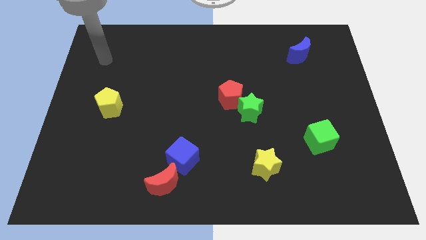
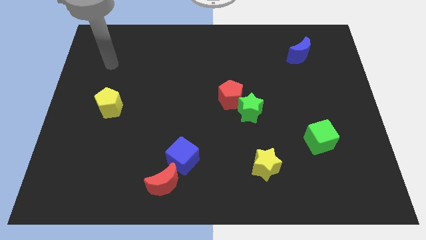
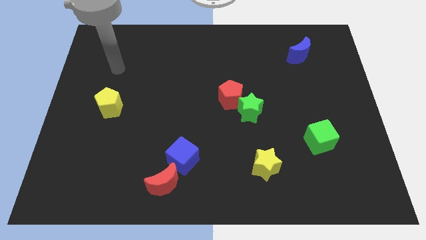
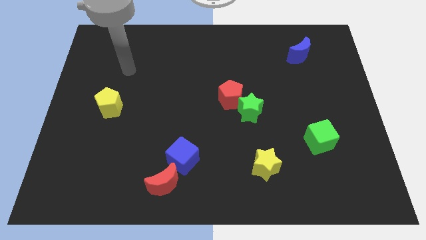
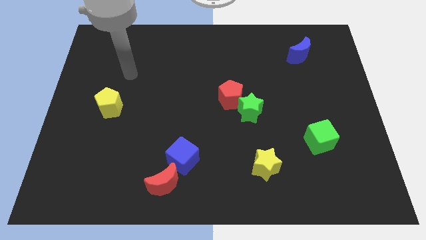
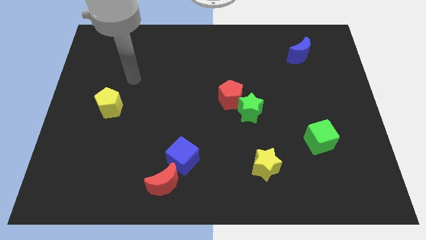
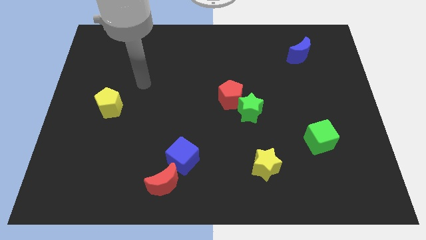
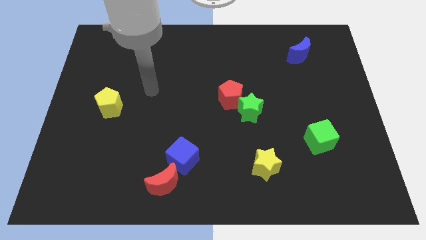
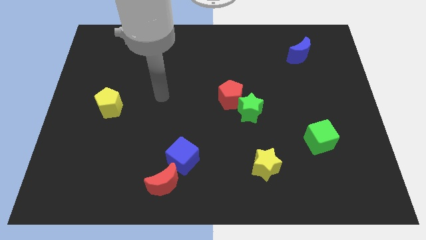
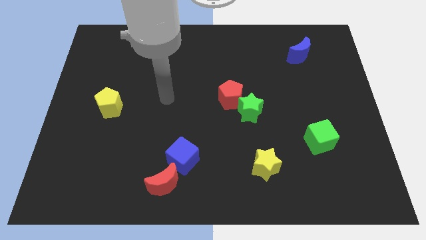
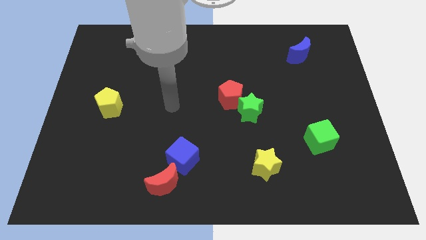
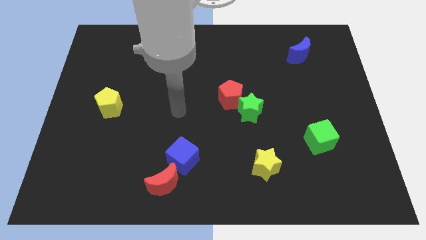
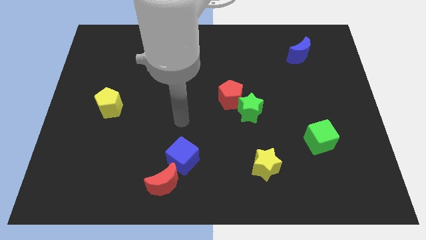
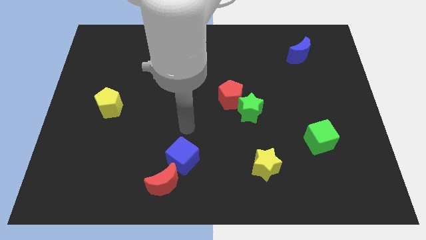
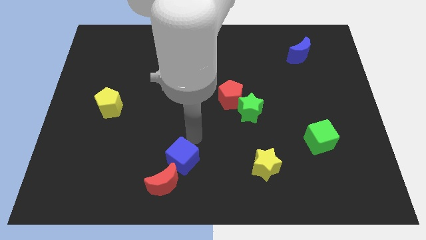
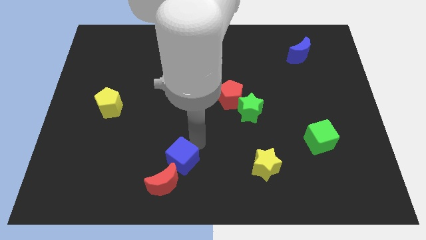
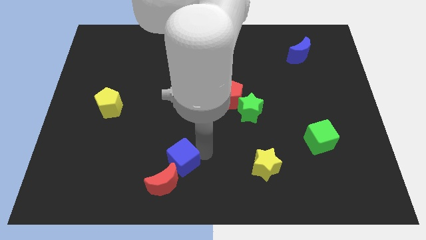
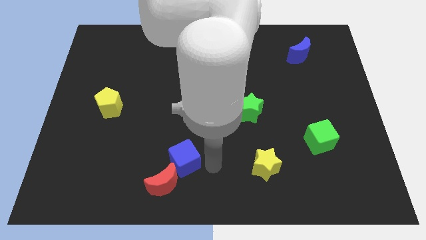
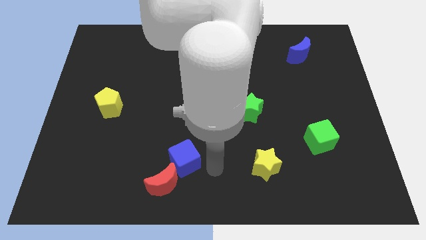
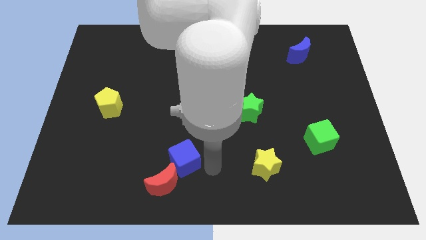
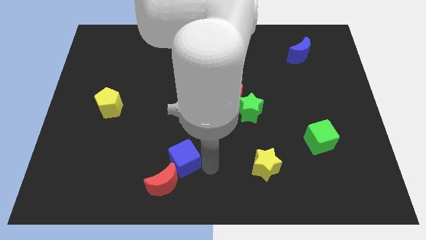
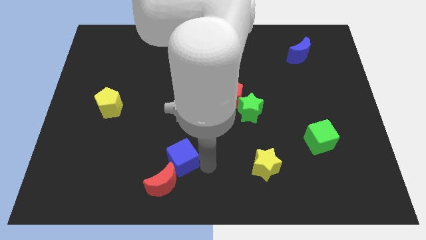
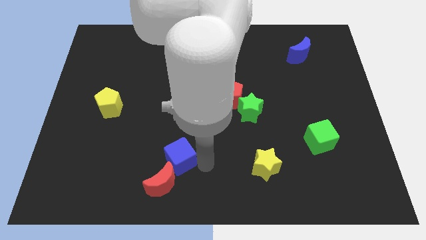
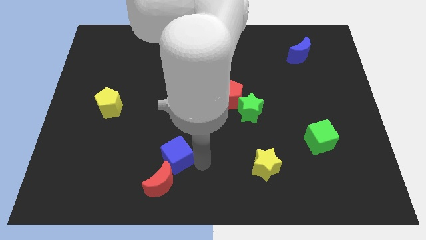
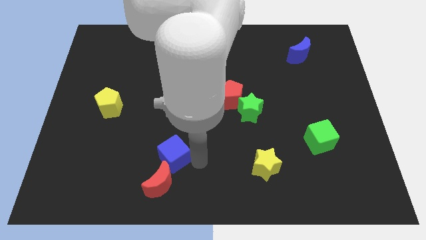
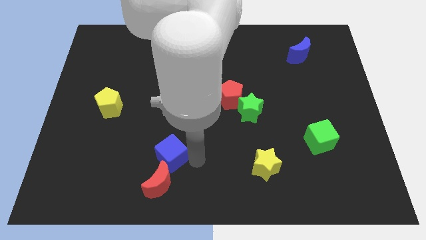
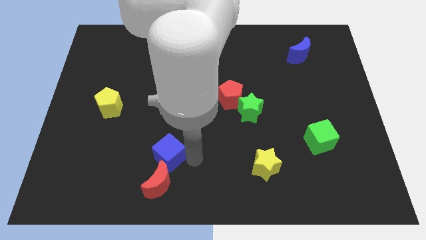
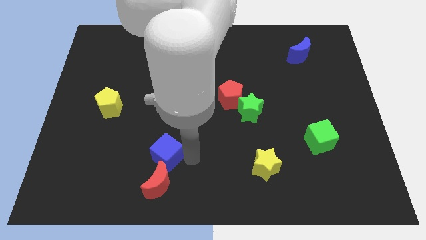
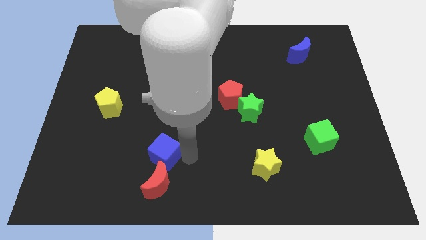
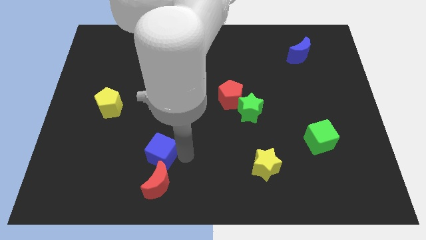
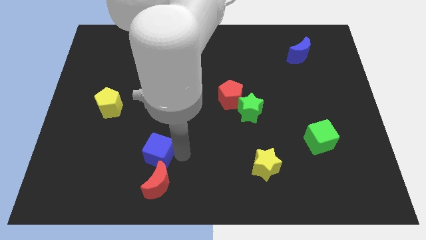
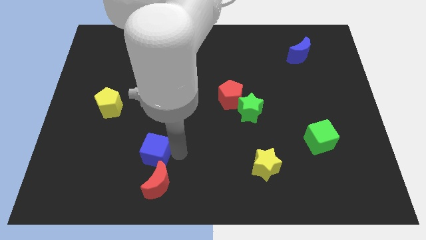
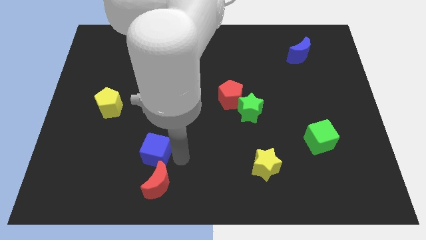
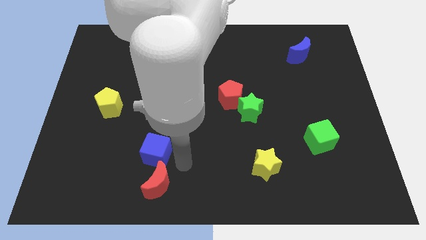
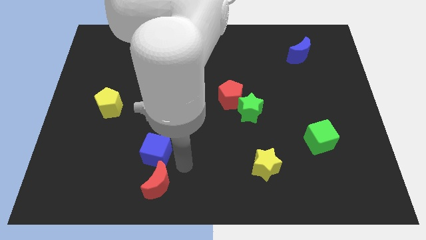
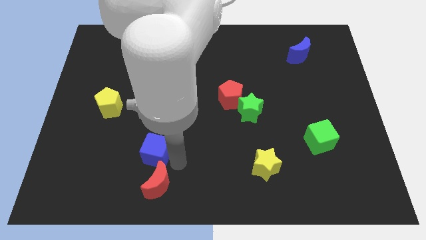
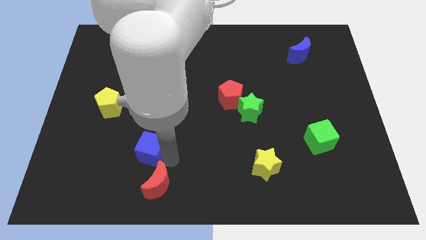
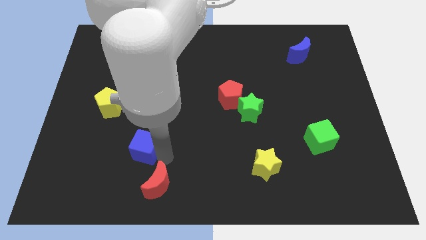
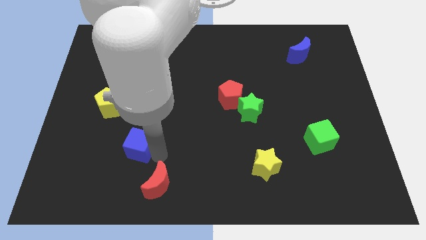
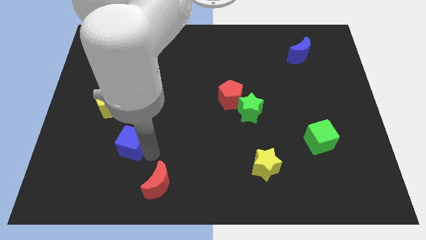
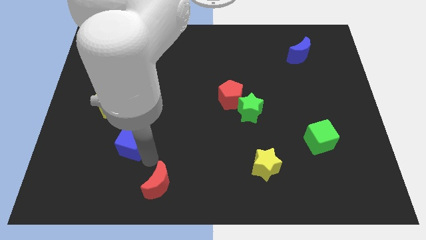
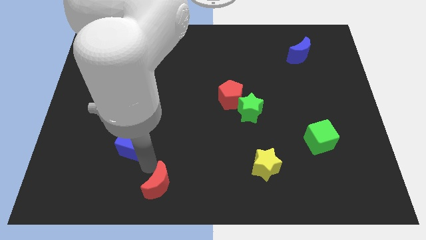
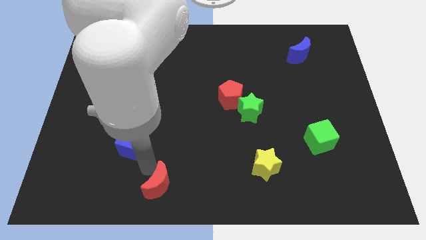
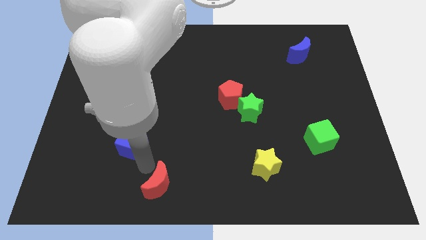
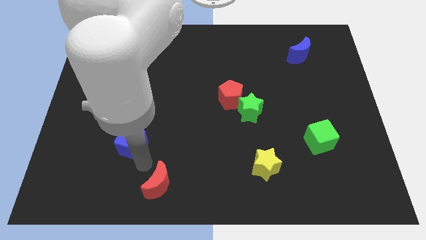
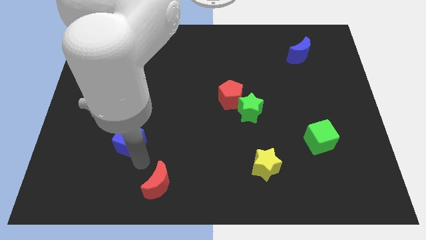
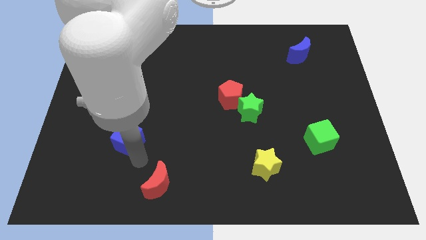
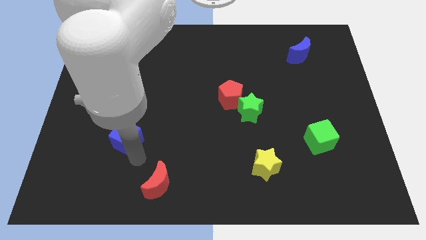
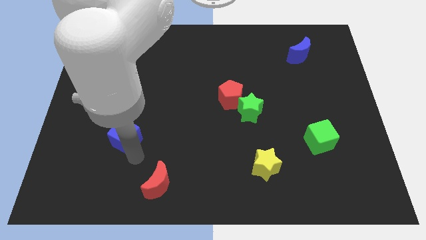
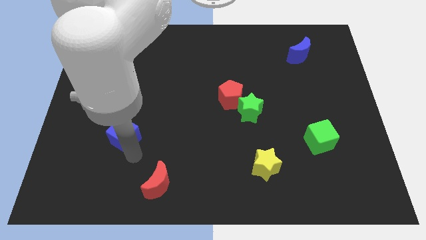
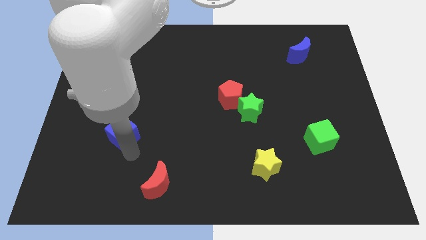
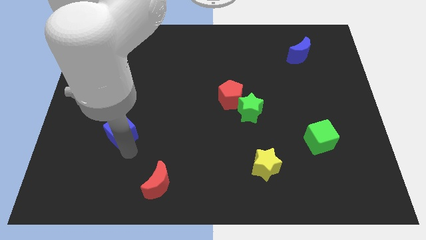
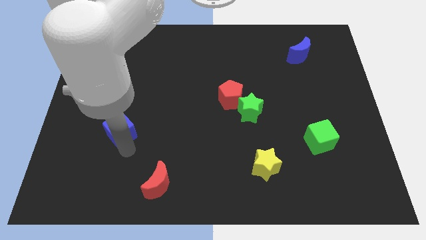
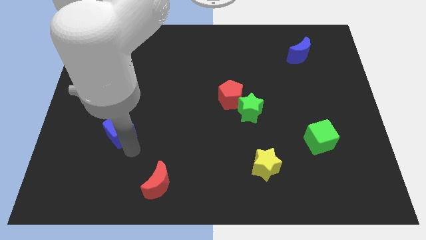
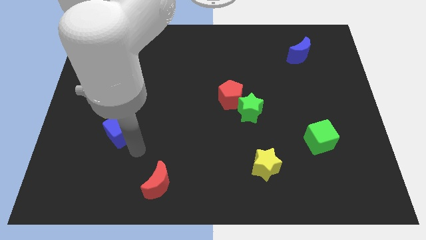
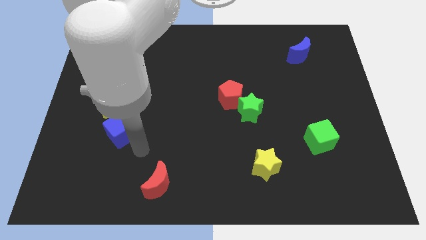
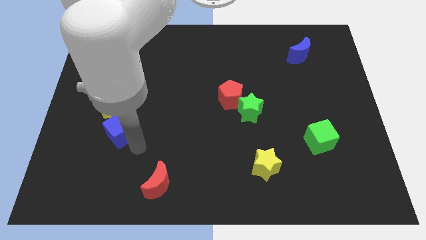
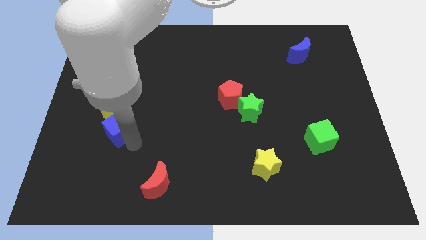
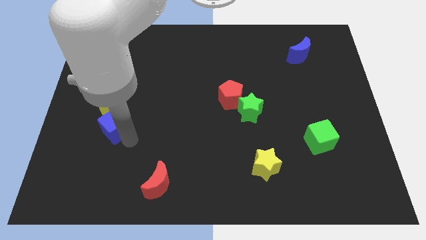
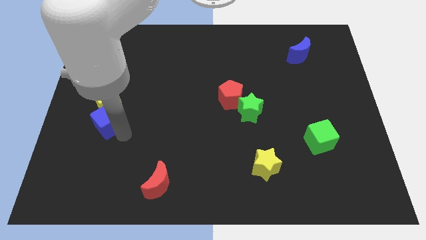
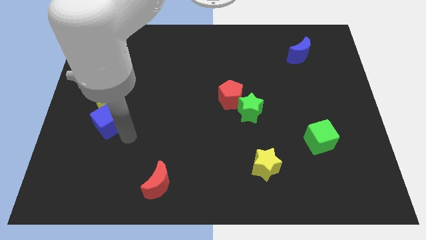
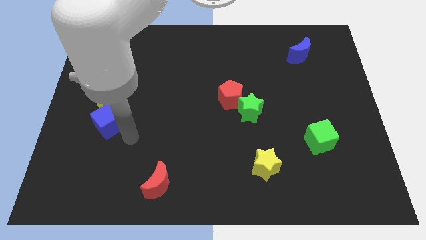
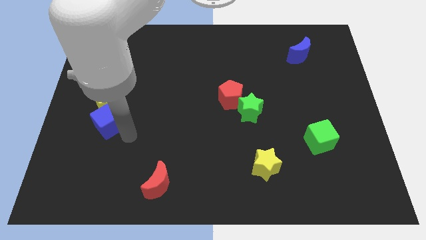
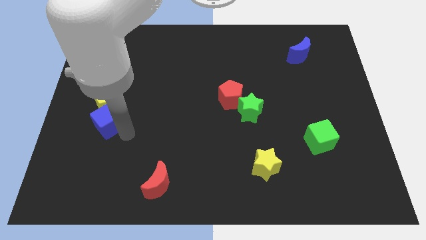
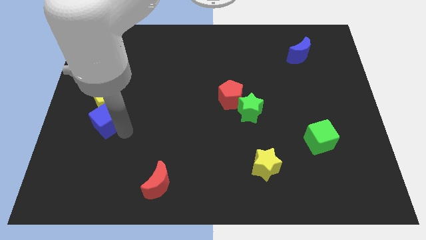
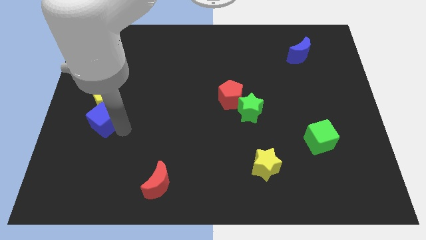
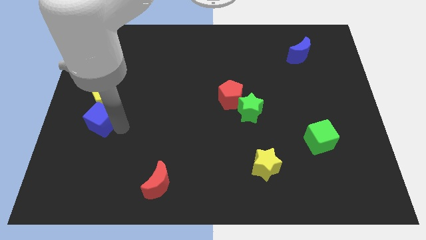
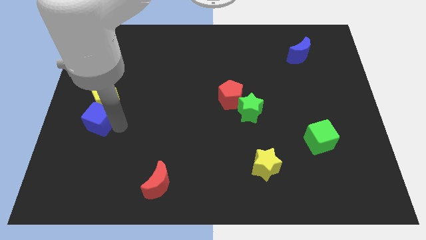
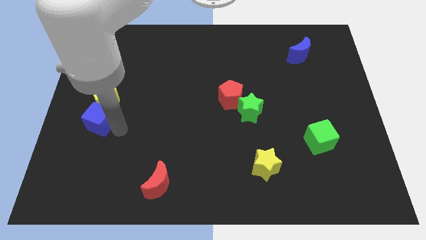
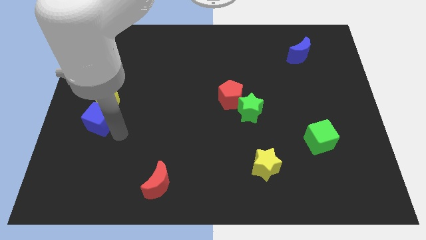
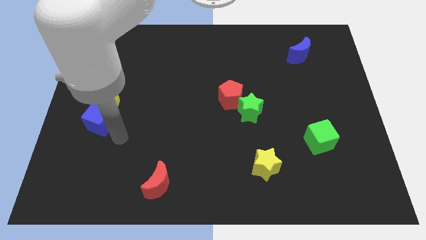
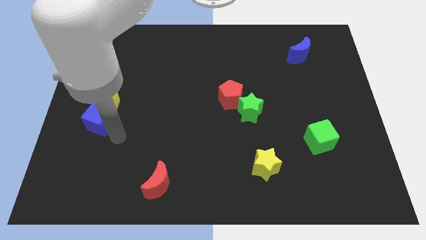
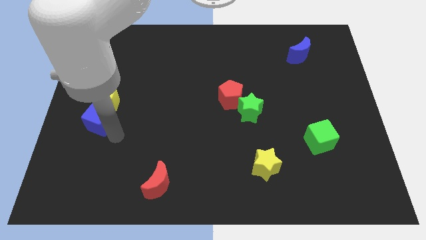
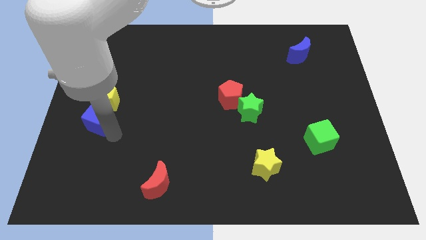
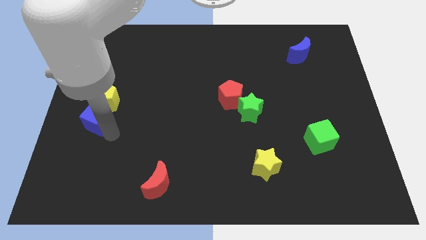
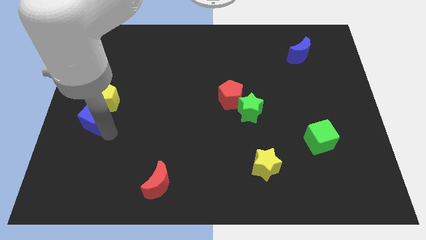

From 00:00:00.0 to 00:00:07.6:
push the blue cube to the left side of the board
